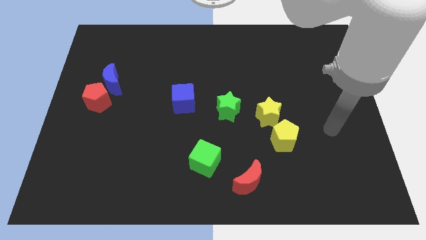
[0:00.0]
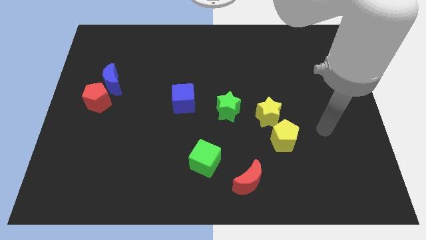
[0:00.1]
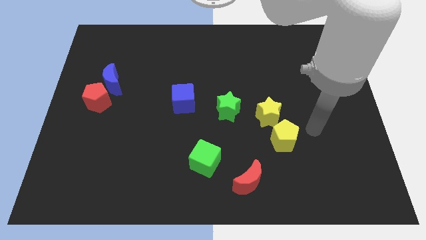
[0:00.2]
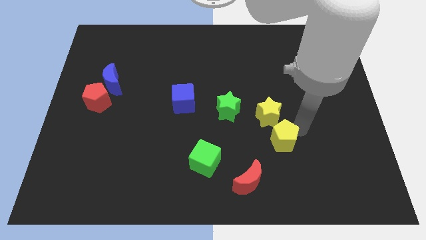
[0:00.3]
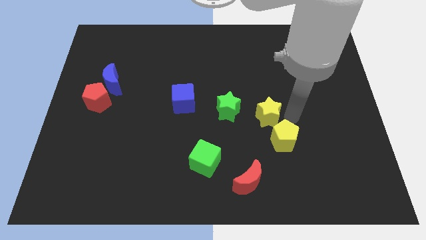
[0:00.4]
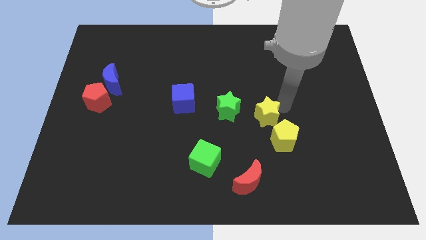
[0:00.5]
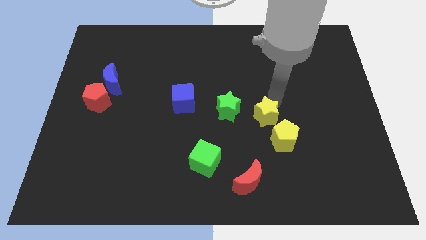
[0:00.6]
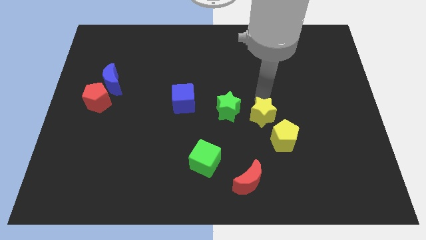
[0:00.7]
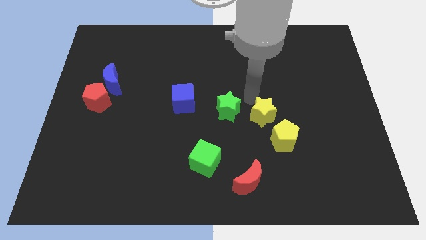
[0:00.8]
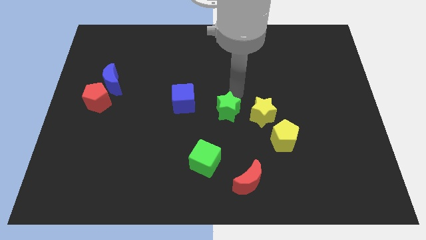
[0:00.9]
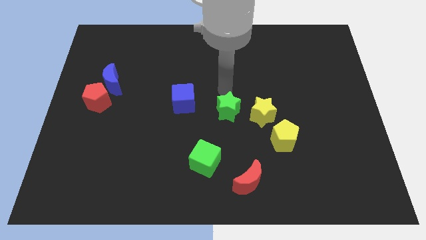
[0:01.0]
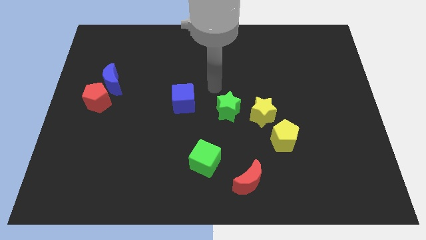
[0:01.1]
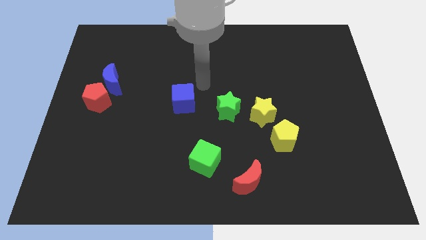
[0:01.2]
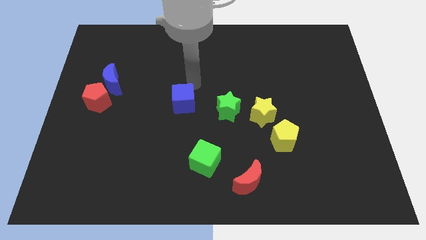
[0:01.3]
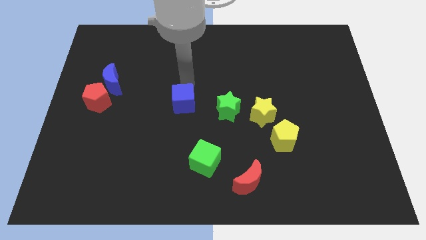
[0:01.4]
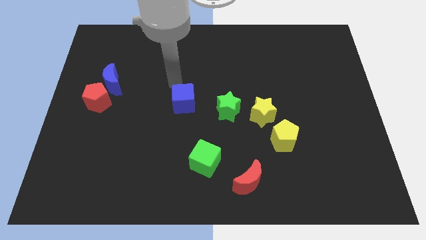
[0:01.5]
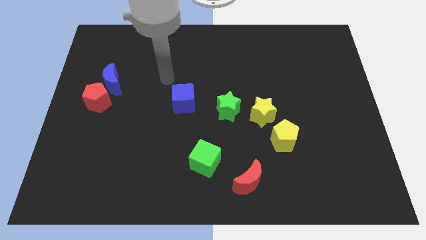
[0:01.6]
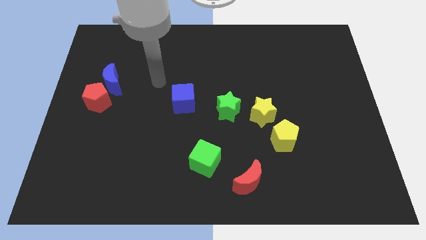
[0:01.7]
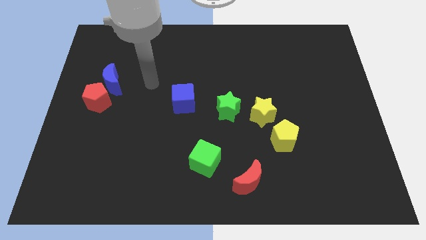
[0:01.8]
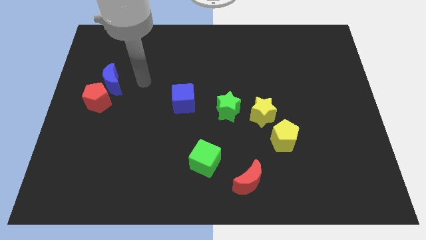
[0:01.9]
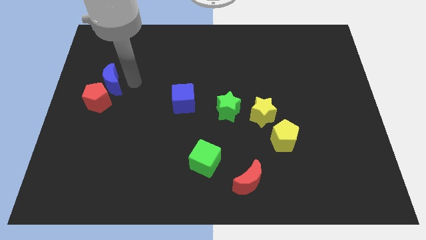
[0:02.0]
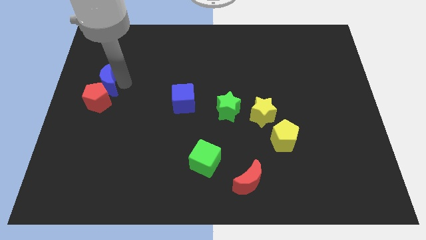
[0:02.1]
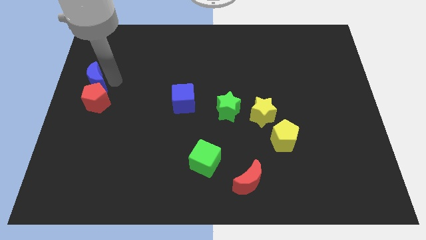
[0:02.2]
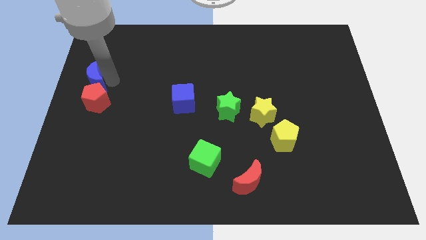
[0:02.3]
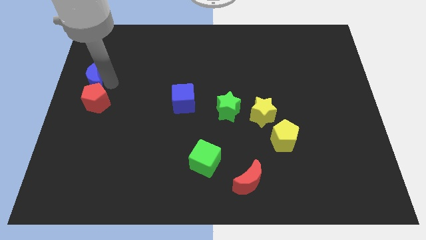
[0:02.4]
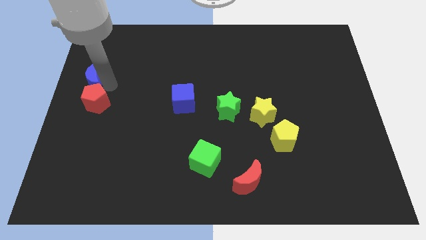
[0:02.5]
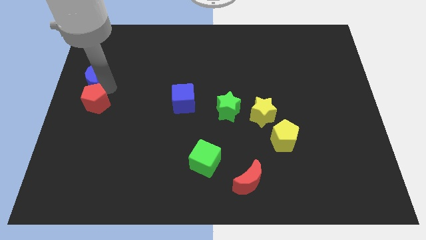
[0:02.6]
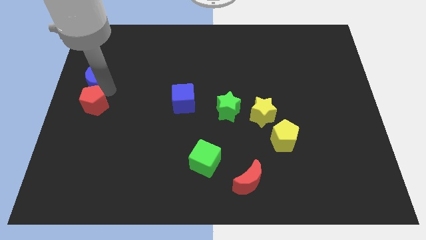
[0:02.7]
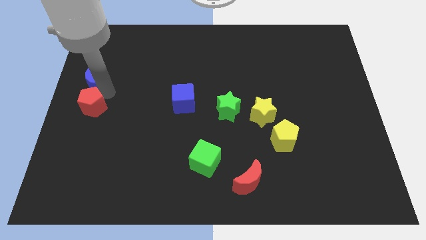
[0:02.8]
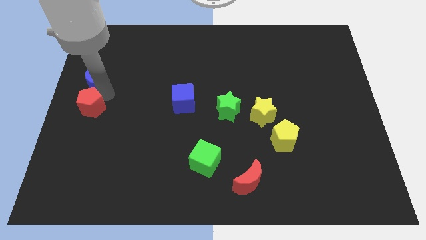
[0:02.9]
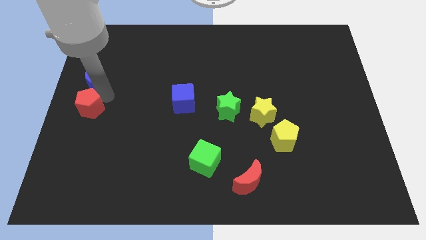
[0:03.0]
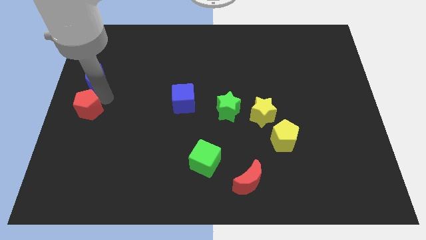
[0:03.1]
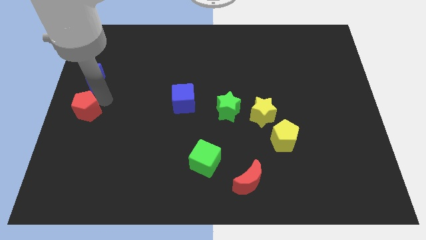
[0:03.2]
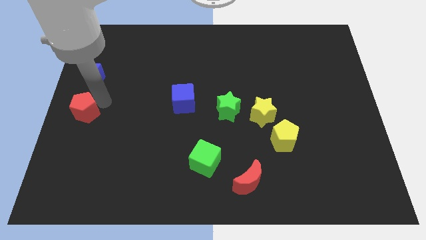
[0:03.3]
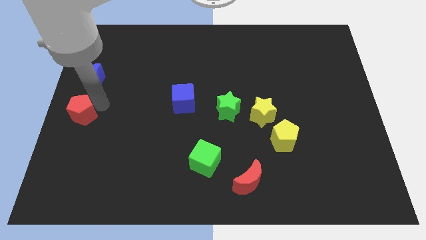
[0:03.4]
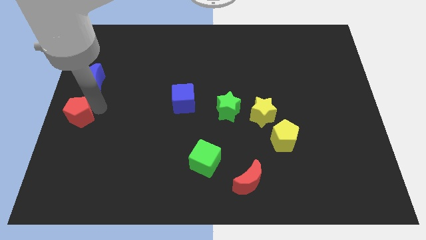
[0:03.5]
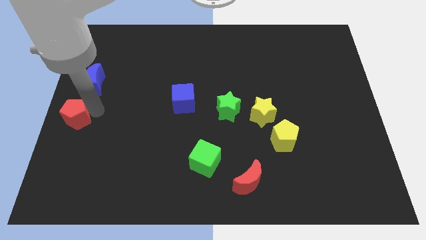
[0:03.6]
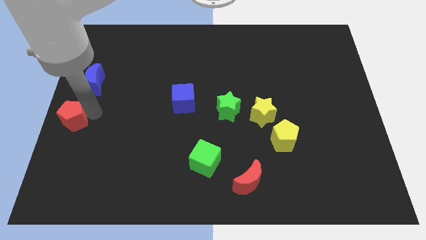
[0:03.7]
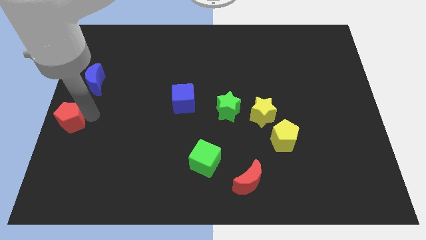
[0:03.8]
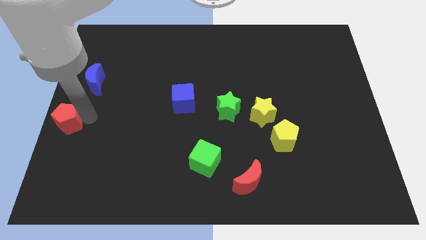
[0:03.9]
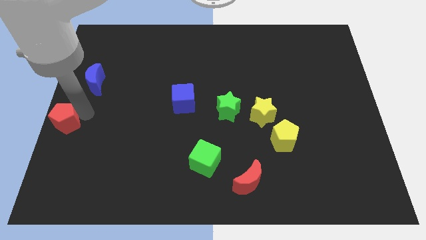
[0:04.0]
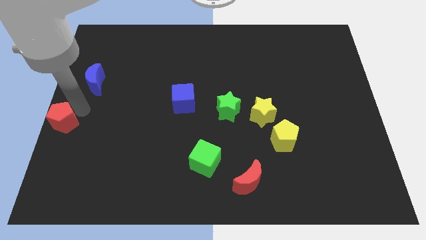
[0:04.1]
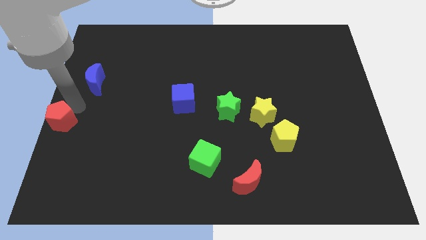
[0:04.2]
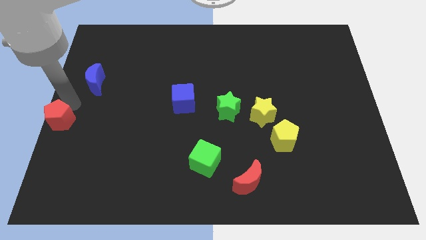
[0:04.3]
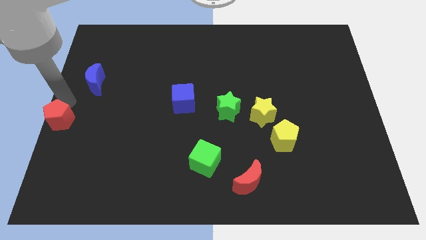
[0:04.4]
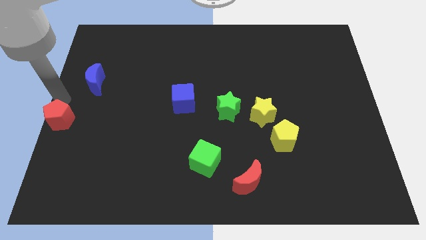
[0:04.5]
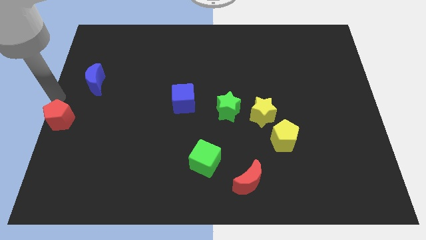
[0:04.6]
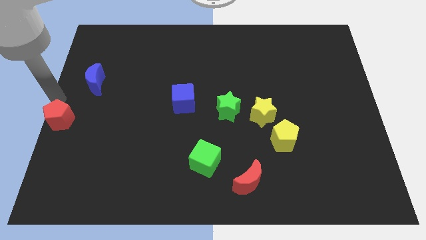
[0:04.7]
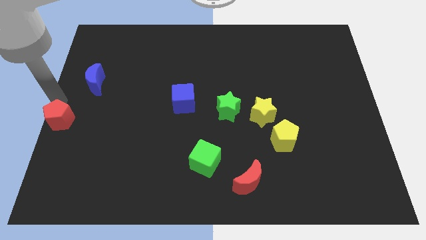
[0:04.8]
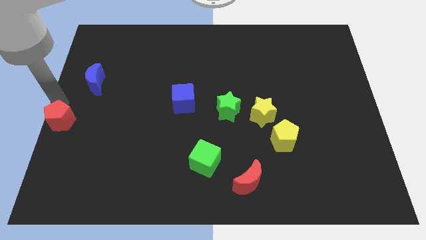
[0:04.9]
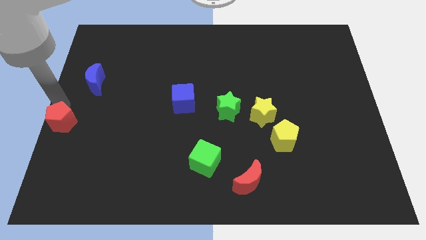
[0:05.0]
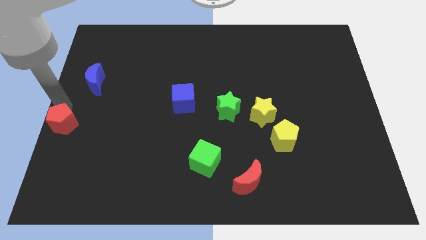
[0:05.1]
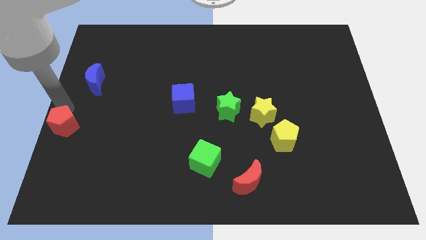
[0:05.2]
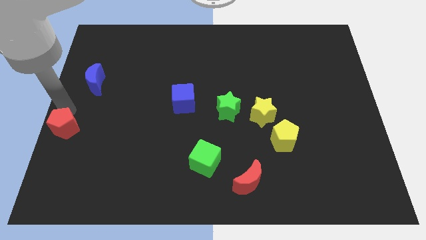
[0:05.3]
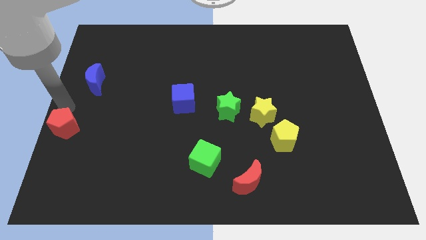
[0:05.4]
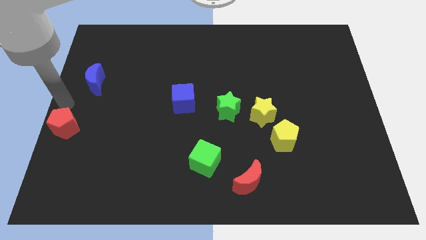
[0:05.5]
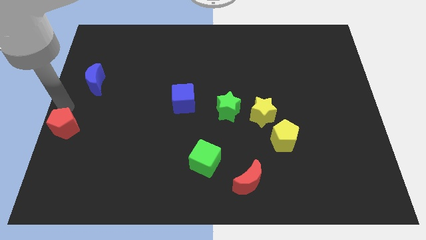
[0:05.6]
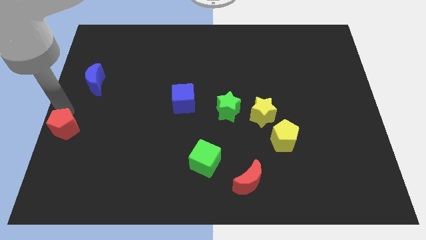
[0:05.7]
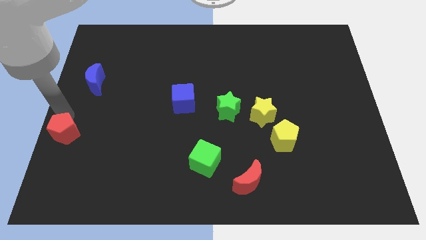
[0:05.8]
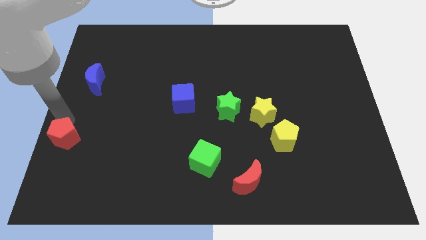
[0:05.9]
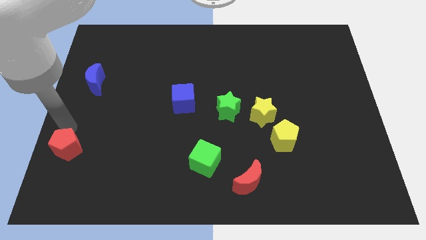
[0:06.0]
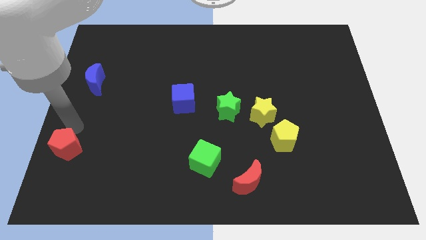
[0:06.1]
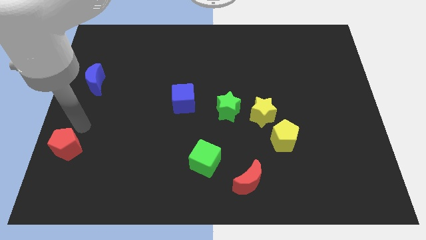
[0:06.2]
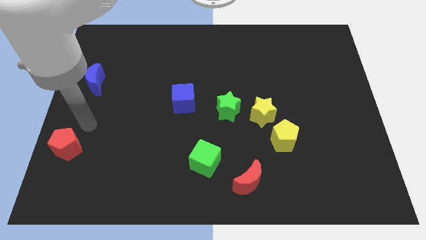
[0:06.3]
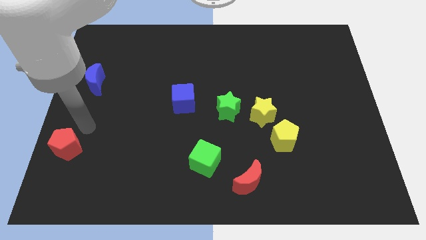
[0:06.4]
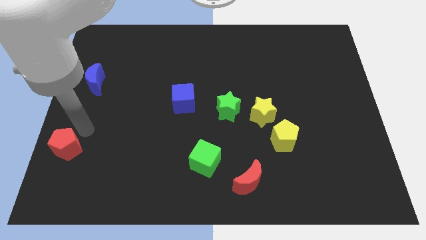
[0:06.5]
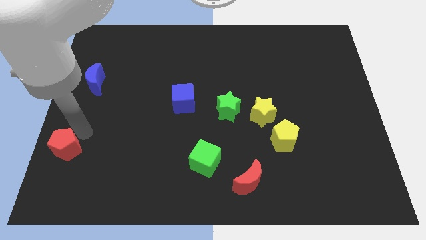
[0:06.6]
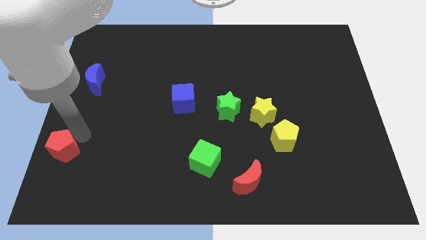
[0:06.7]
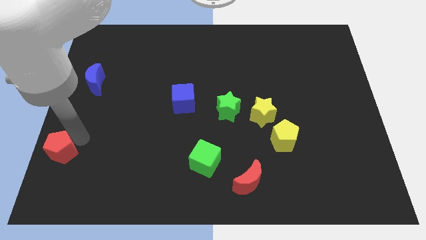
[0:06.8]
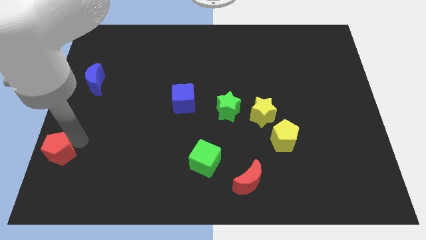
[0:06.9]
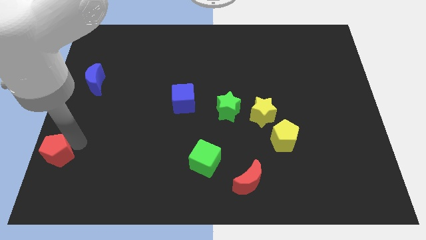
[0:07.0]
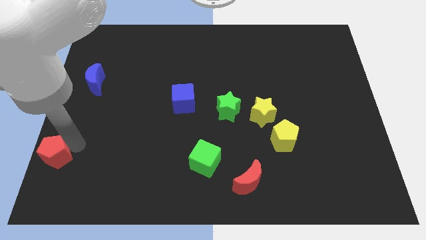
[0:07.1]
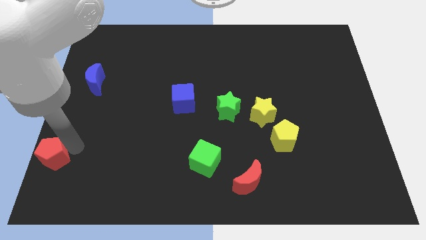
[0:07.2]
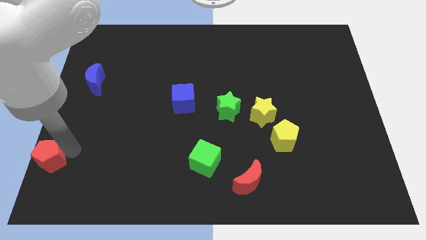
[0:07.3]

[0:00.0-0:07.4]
put the red pentagon to the bottom left of the board
